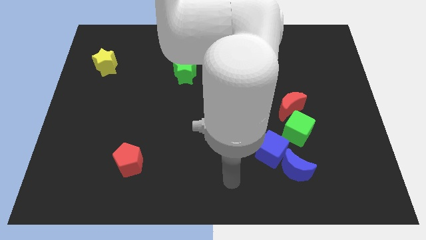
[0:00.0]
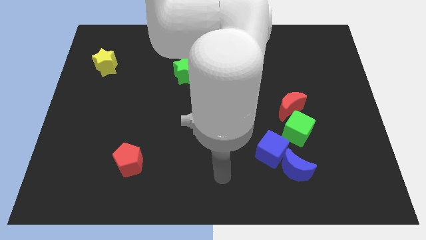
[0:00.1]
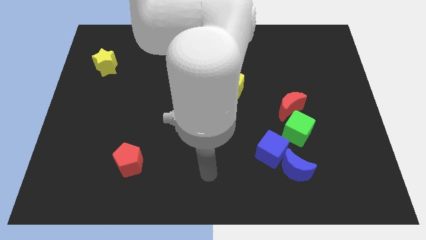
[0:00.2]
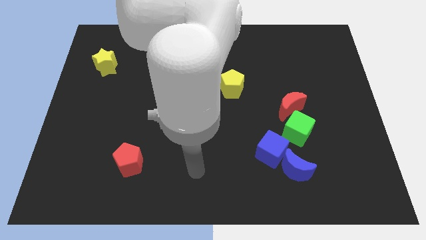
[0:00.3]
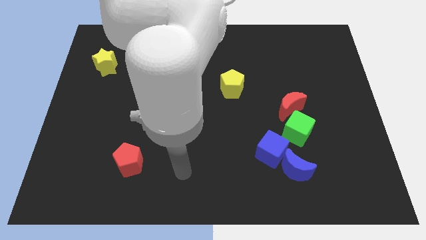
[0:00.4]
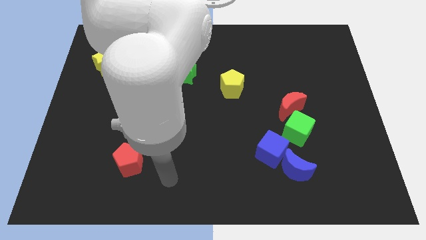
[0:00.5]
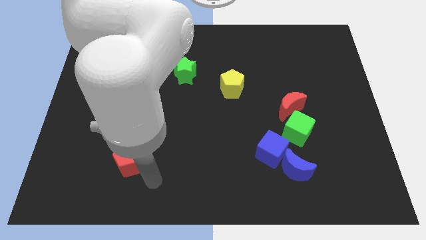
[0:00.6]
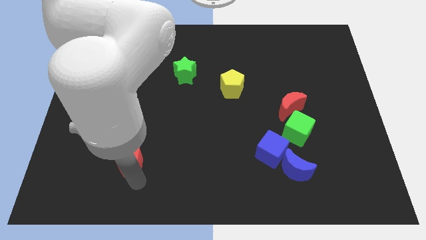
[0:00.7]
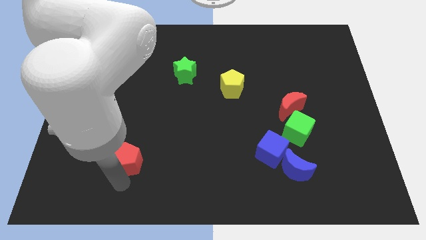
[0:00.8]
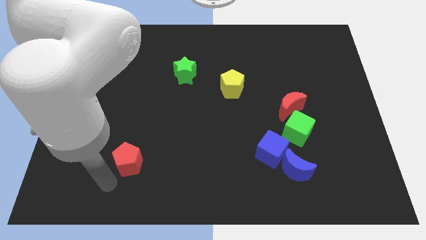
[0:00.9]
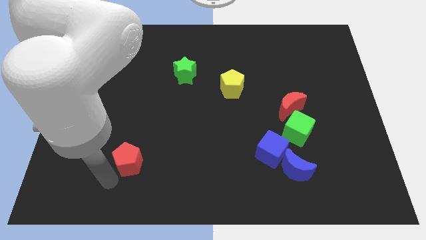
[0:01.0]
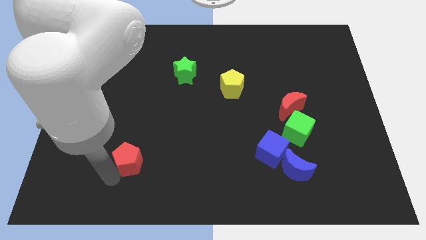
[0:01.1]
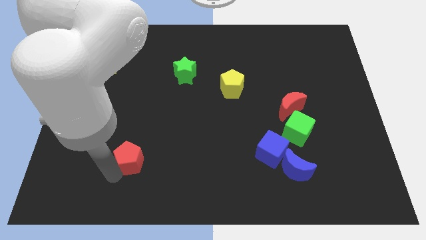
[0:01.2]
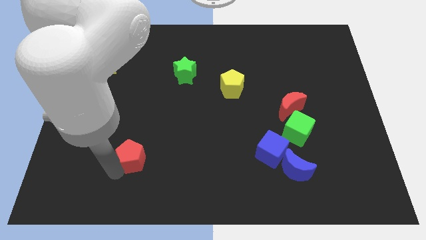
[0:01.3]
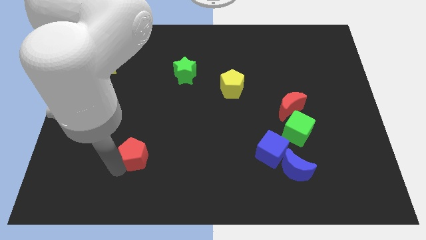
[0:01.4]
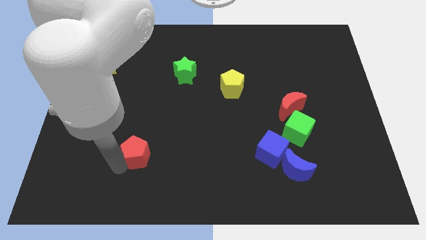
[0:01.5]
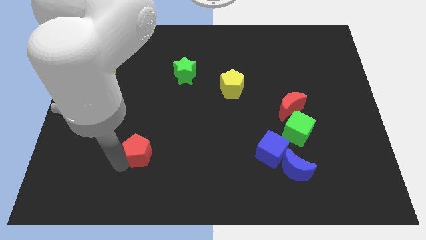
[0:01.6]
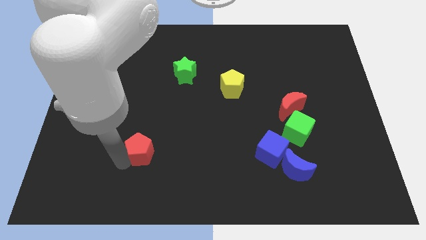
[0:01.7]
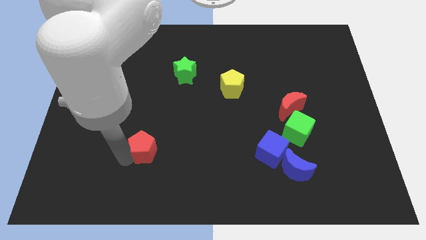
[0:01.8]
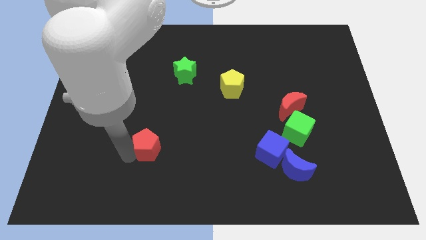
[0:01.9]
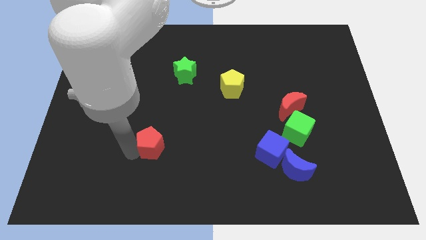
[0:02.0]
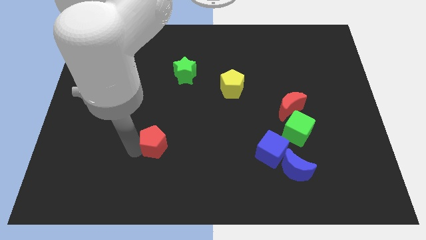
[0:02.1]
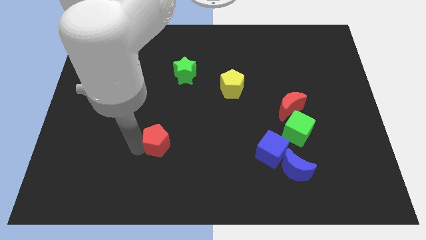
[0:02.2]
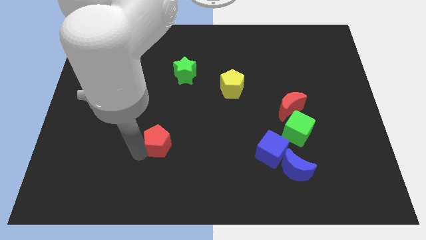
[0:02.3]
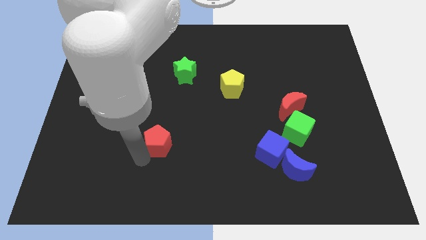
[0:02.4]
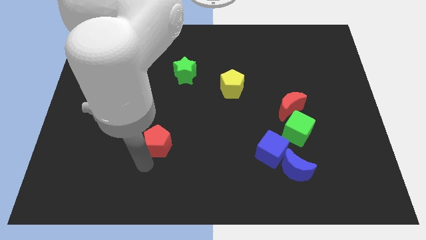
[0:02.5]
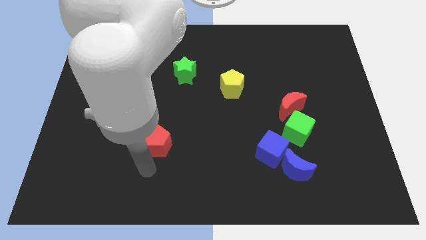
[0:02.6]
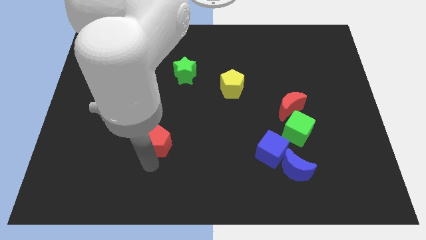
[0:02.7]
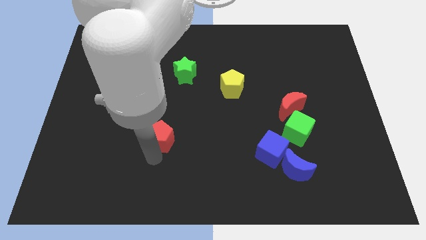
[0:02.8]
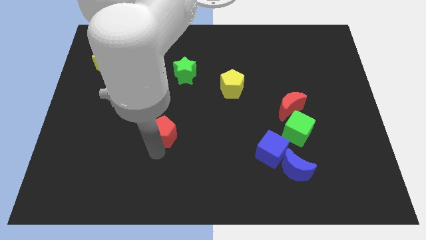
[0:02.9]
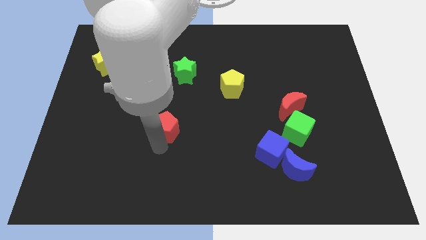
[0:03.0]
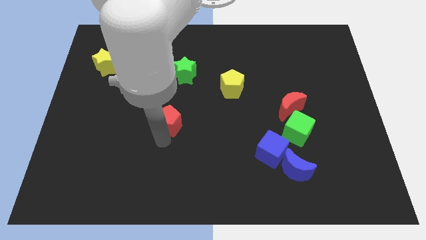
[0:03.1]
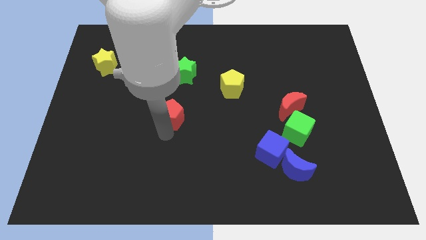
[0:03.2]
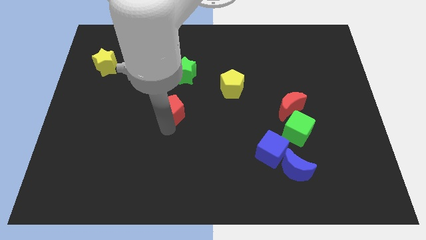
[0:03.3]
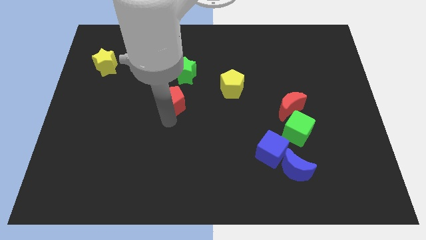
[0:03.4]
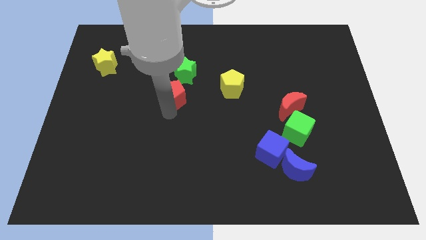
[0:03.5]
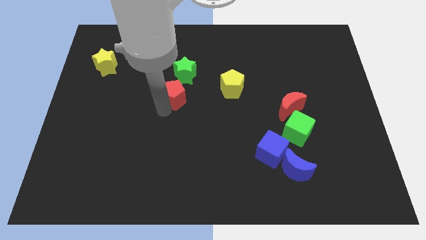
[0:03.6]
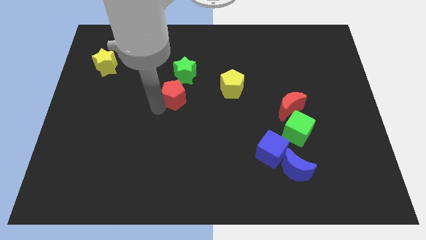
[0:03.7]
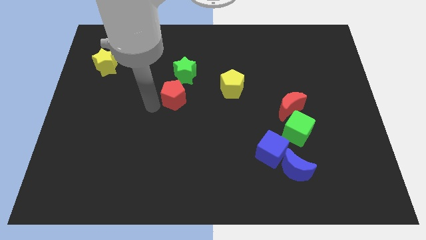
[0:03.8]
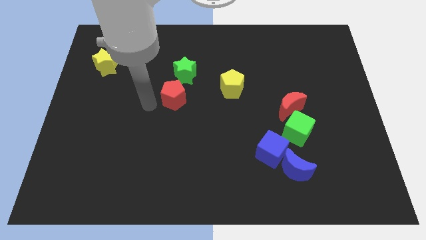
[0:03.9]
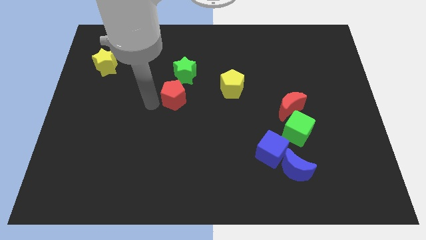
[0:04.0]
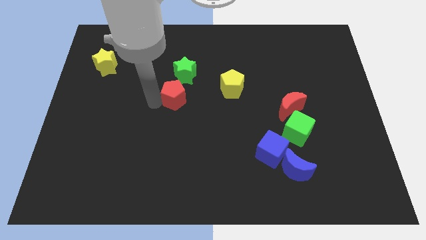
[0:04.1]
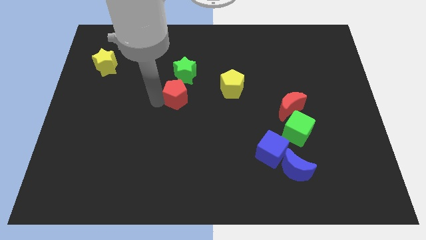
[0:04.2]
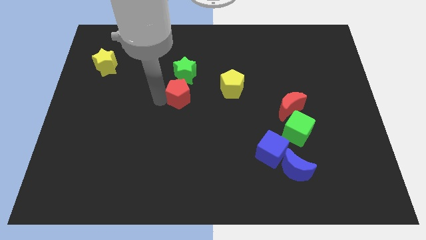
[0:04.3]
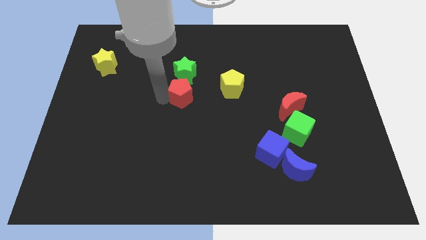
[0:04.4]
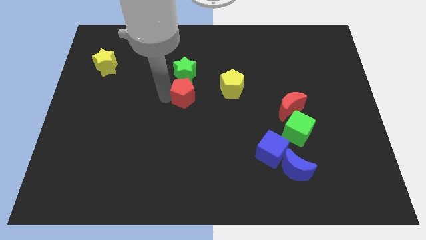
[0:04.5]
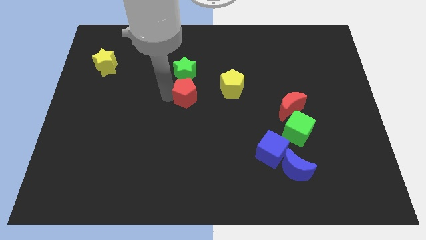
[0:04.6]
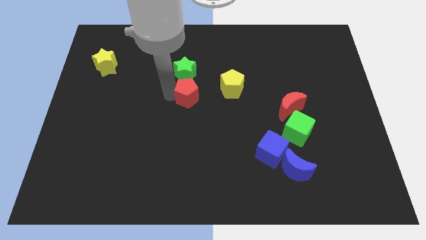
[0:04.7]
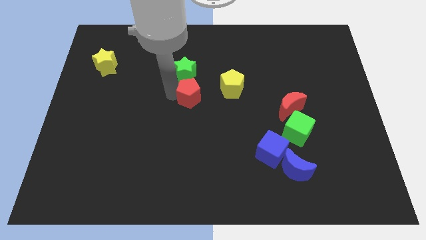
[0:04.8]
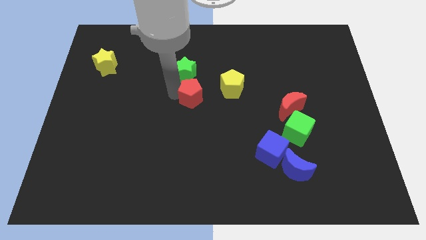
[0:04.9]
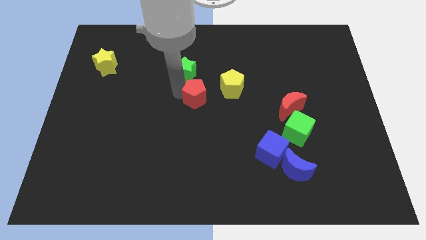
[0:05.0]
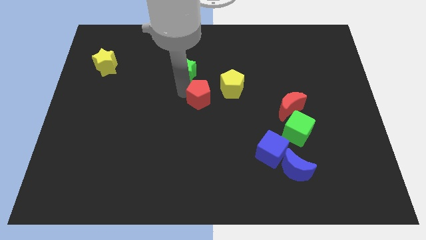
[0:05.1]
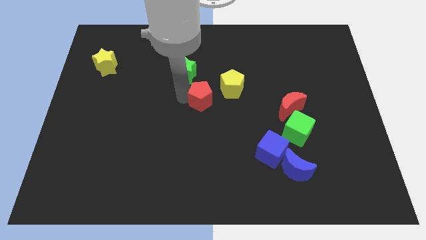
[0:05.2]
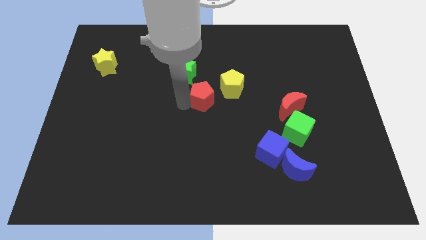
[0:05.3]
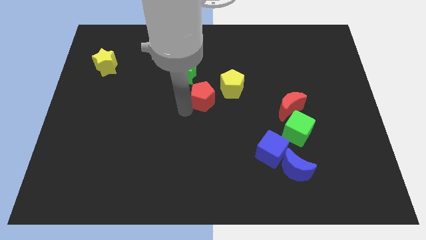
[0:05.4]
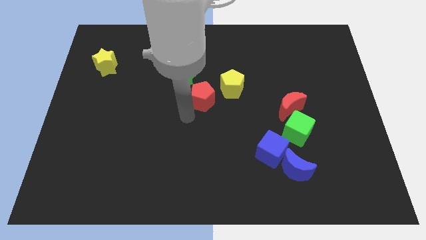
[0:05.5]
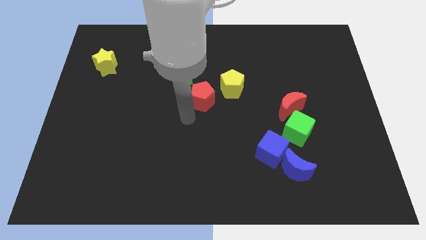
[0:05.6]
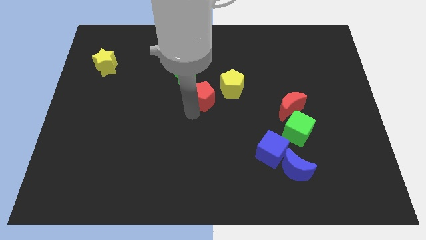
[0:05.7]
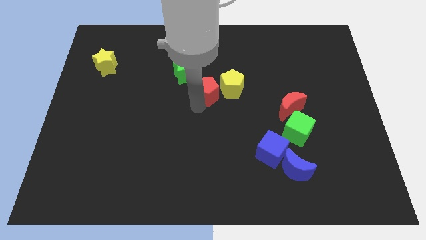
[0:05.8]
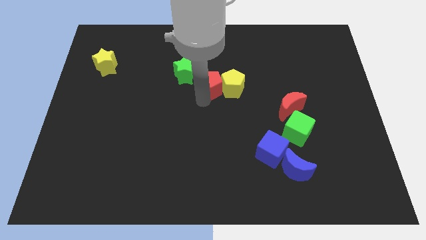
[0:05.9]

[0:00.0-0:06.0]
slide the red pentagon to the right of the green star

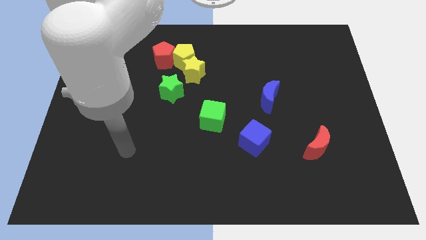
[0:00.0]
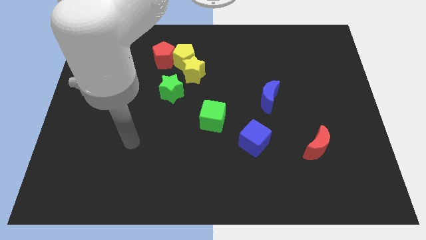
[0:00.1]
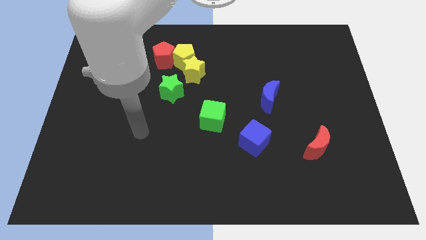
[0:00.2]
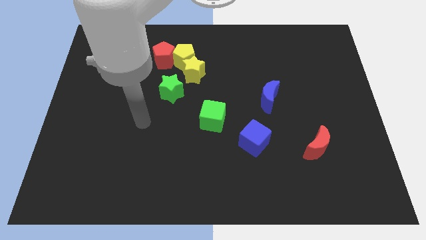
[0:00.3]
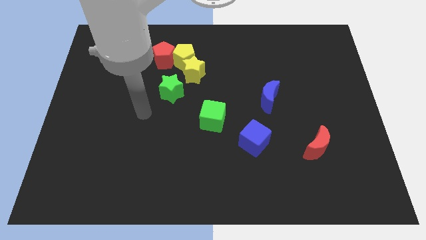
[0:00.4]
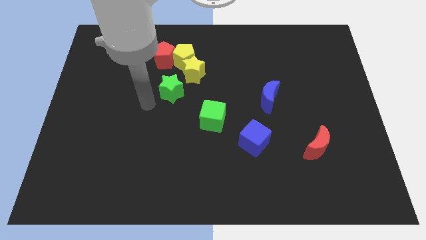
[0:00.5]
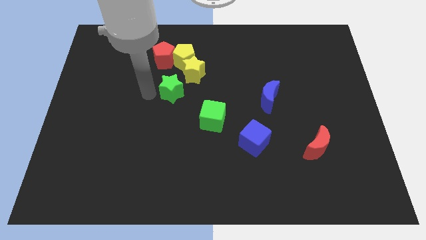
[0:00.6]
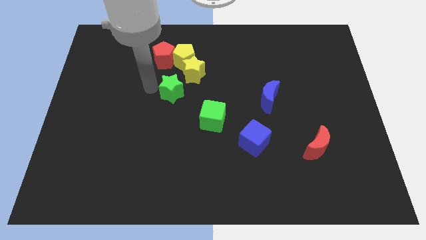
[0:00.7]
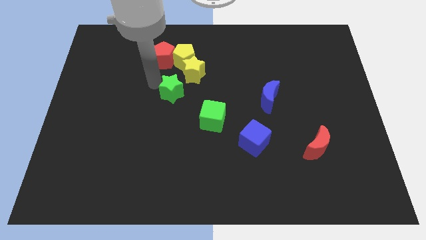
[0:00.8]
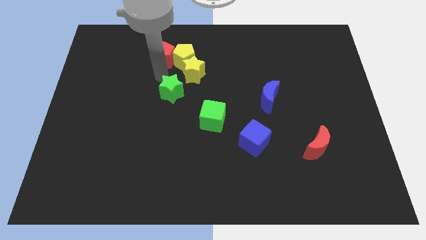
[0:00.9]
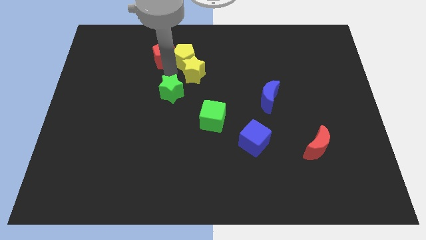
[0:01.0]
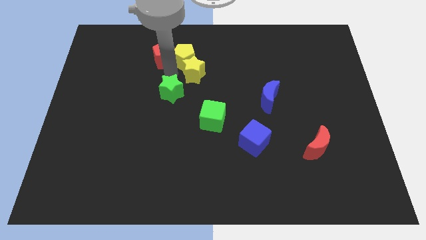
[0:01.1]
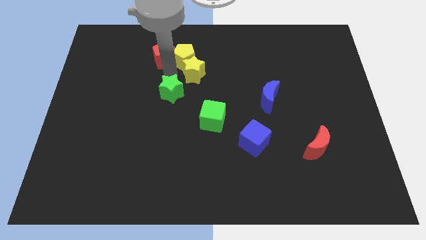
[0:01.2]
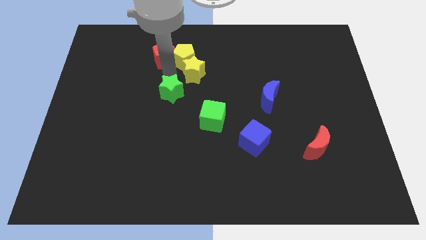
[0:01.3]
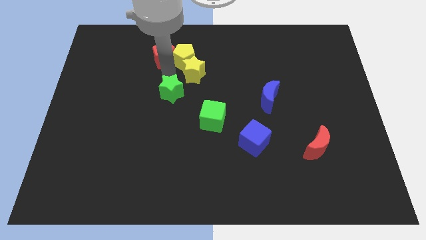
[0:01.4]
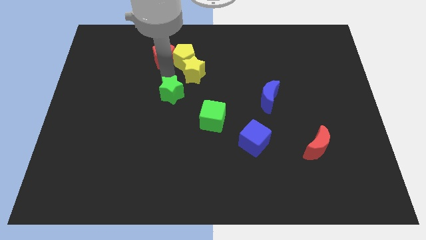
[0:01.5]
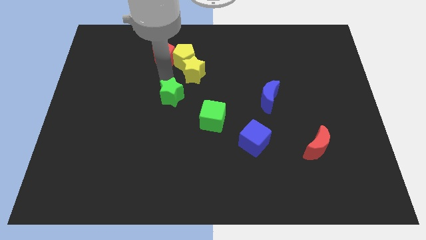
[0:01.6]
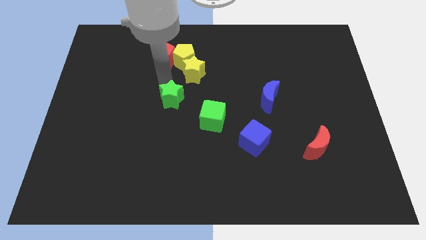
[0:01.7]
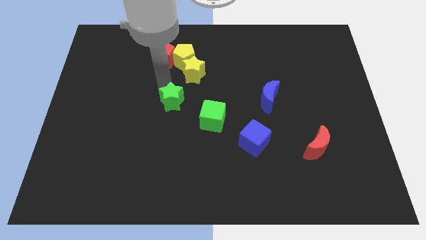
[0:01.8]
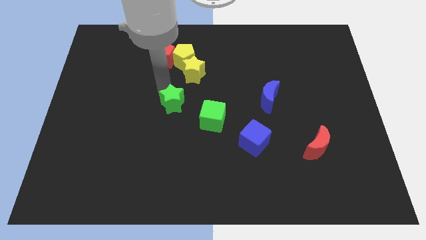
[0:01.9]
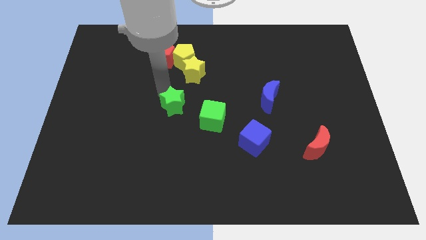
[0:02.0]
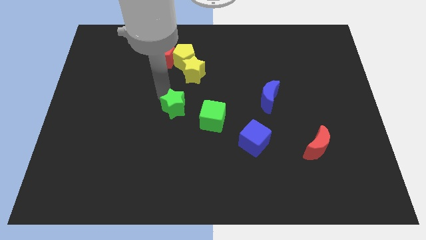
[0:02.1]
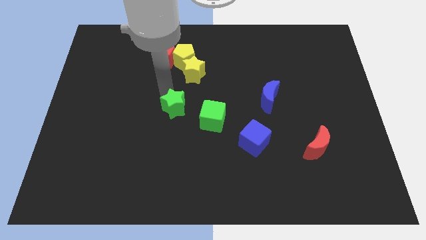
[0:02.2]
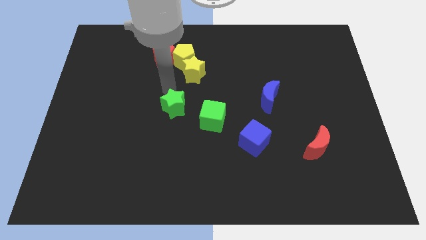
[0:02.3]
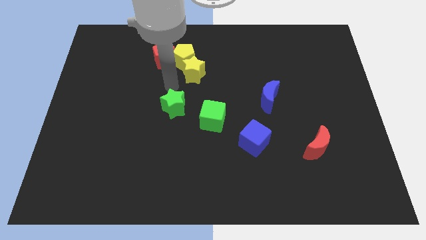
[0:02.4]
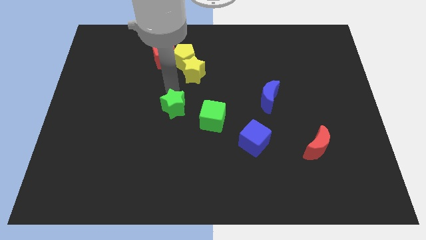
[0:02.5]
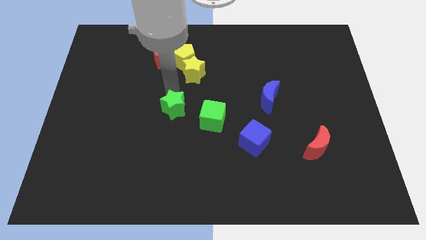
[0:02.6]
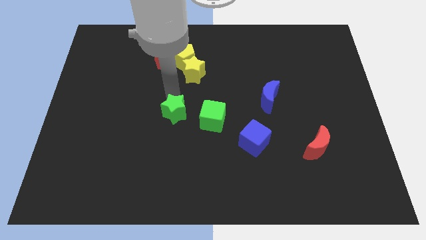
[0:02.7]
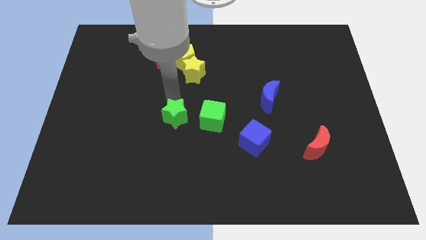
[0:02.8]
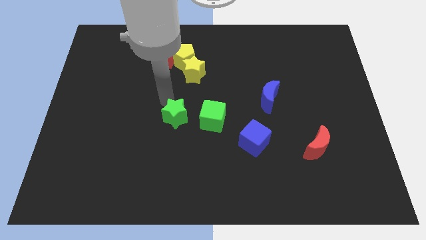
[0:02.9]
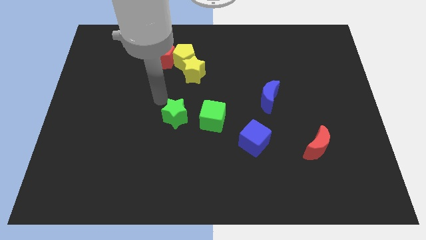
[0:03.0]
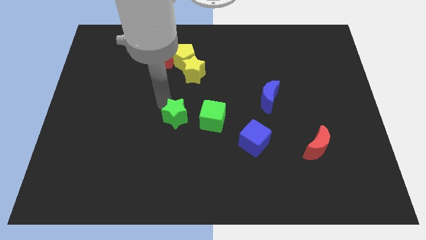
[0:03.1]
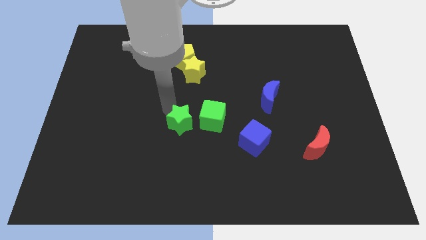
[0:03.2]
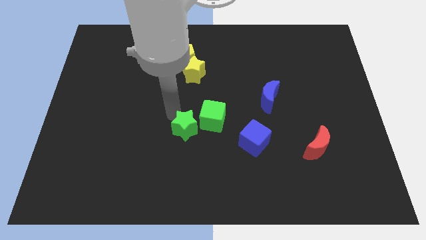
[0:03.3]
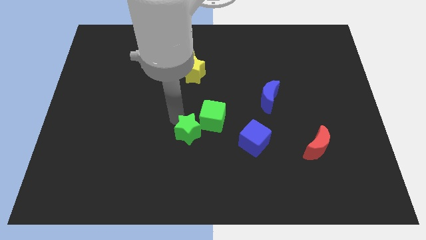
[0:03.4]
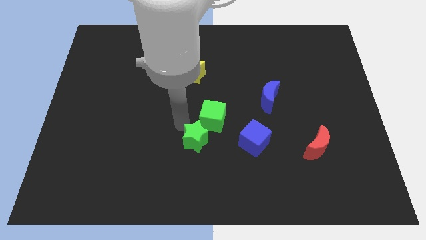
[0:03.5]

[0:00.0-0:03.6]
put the green star below the green cube
